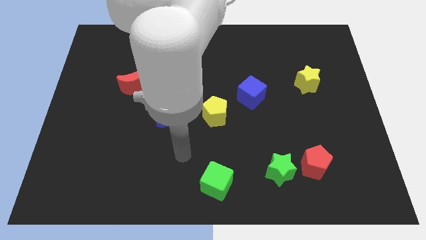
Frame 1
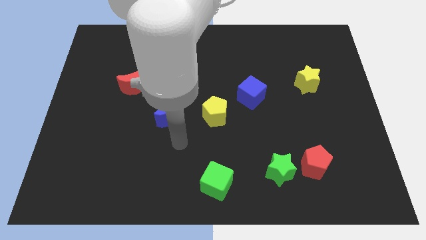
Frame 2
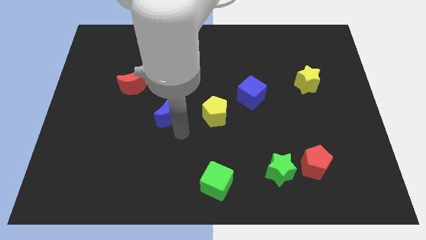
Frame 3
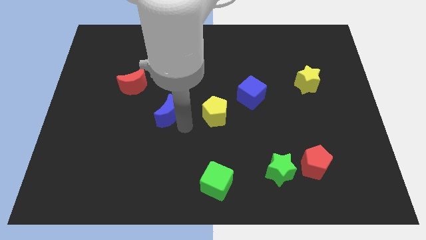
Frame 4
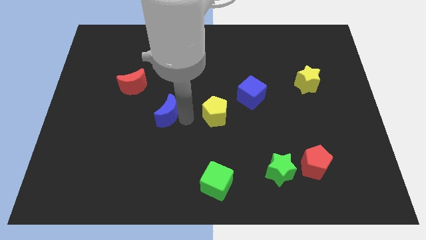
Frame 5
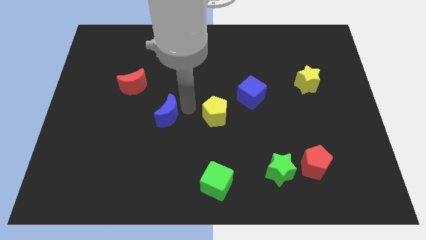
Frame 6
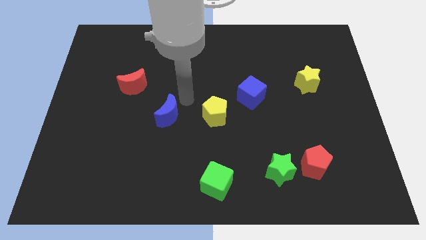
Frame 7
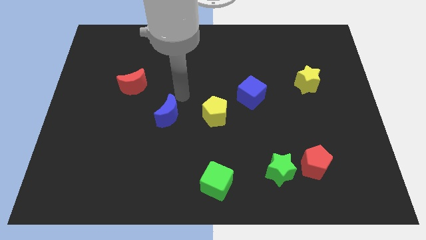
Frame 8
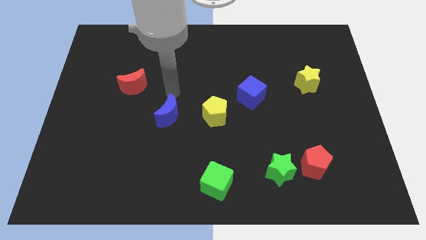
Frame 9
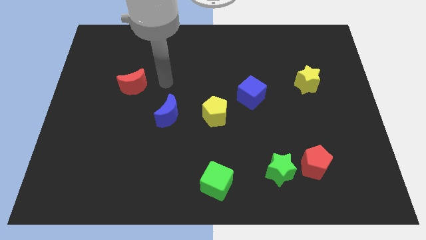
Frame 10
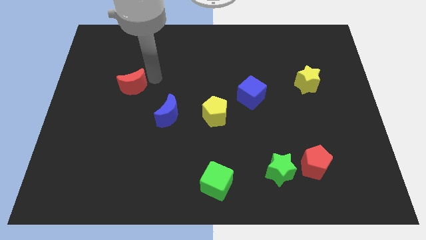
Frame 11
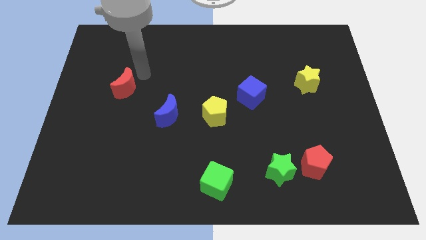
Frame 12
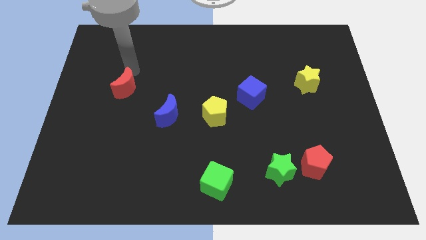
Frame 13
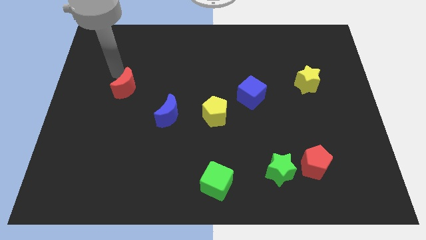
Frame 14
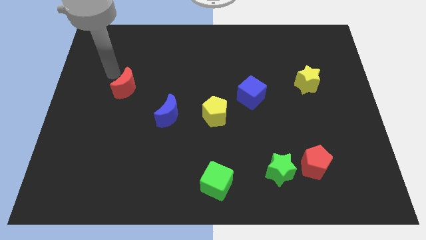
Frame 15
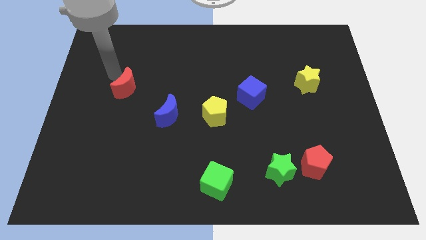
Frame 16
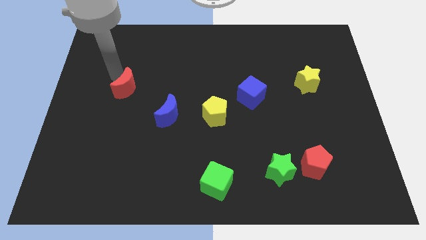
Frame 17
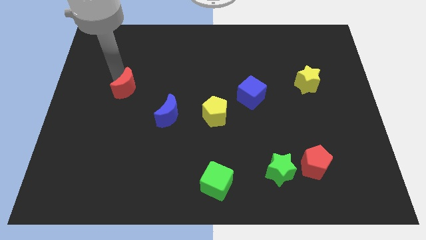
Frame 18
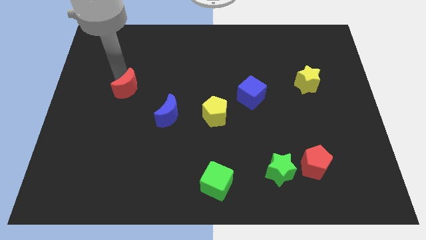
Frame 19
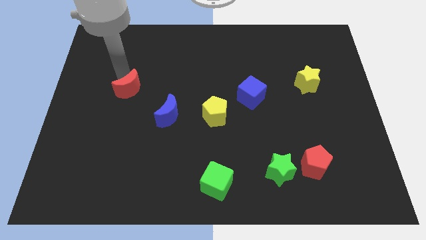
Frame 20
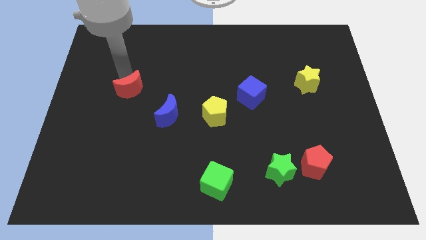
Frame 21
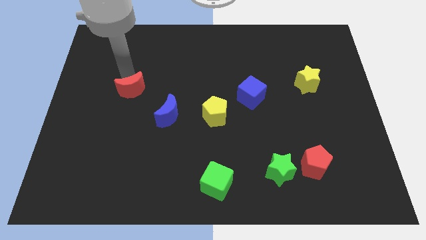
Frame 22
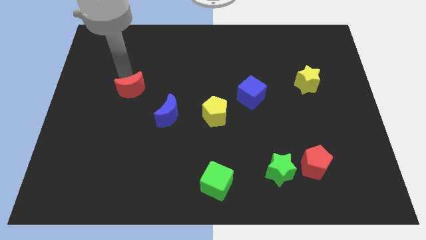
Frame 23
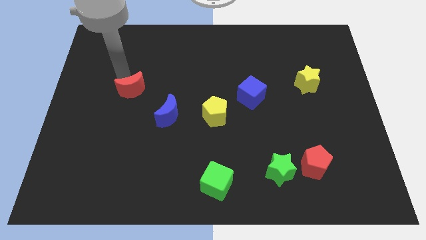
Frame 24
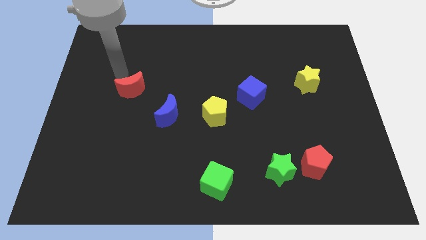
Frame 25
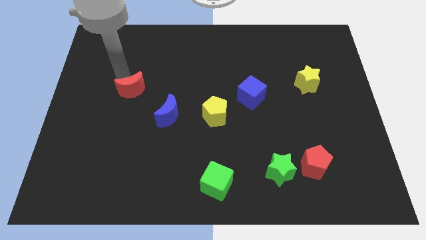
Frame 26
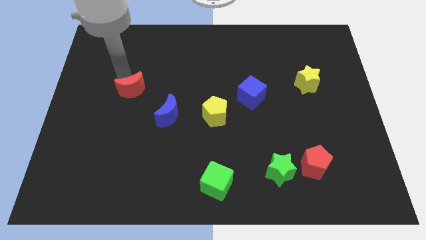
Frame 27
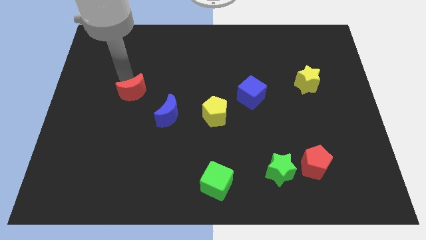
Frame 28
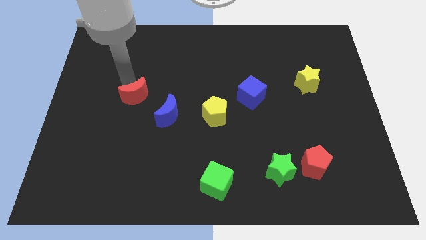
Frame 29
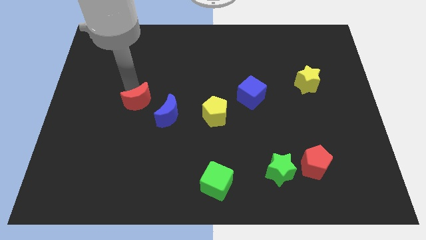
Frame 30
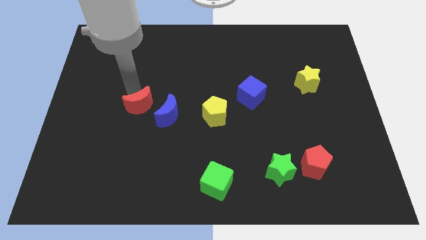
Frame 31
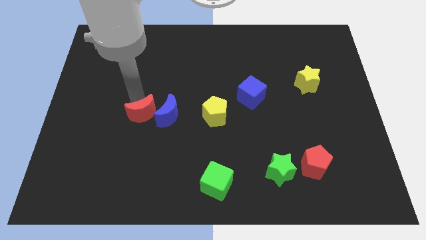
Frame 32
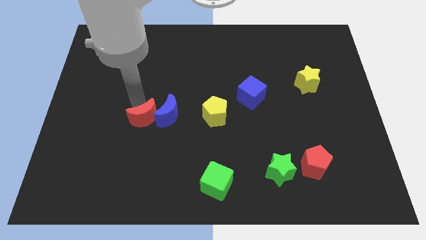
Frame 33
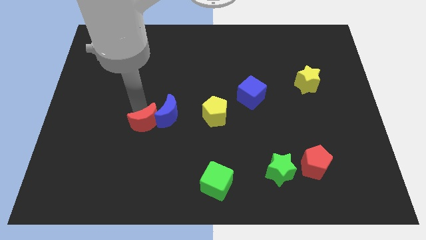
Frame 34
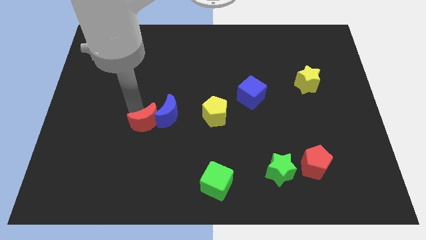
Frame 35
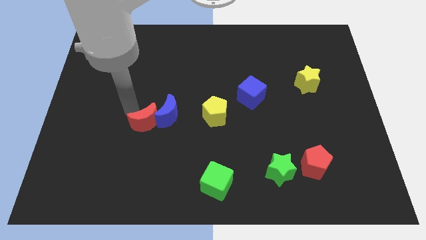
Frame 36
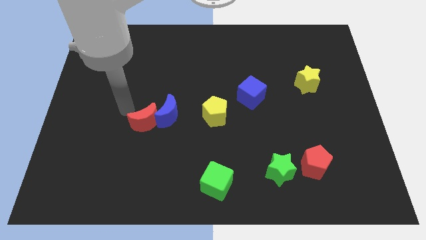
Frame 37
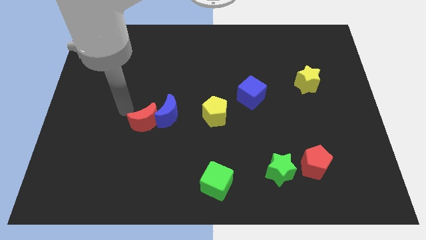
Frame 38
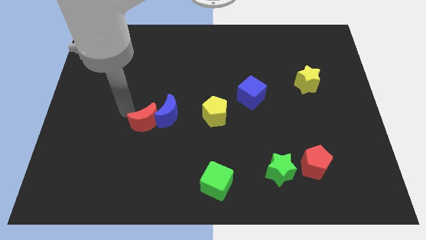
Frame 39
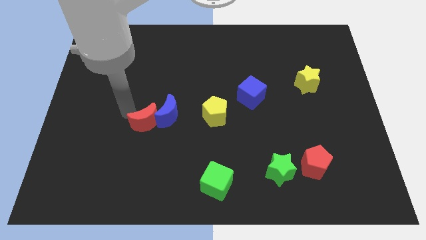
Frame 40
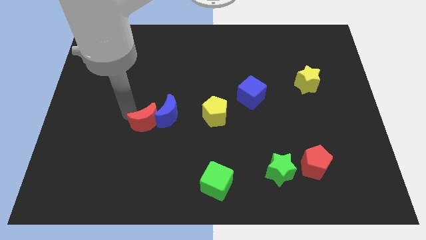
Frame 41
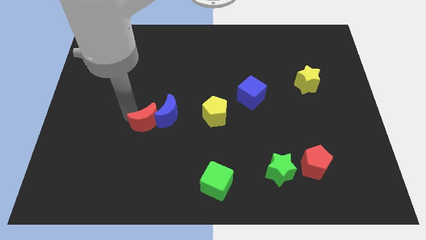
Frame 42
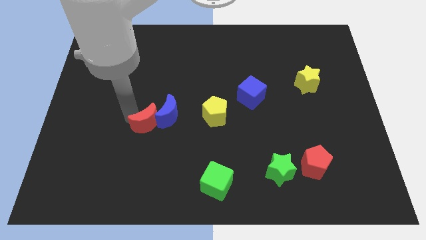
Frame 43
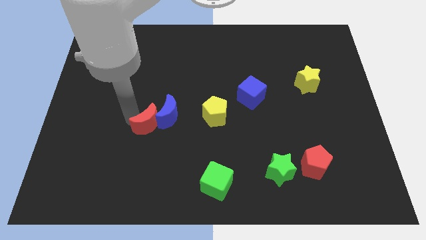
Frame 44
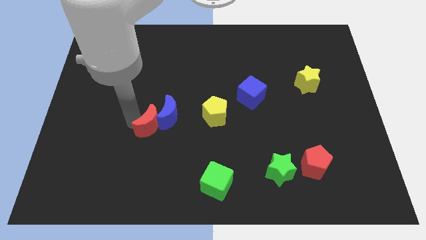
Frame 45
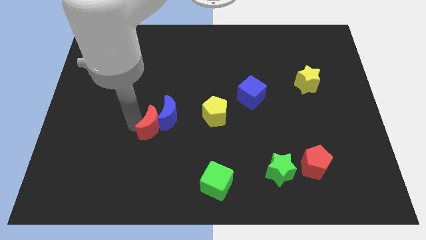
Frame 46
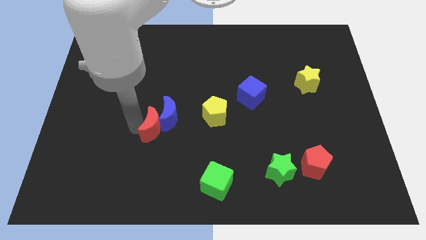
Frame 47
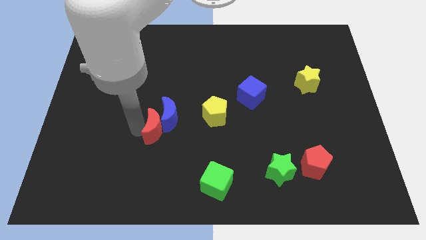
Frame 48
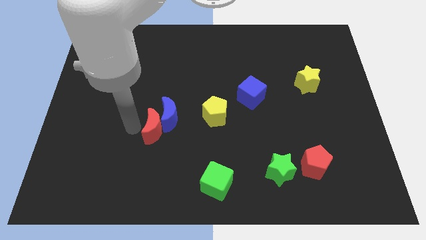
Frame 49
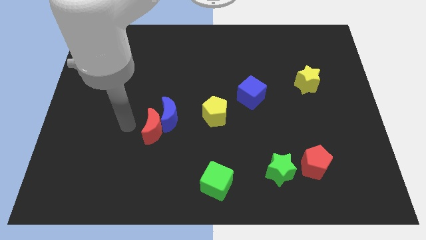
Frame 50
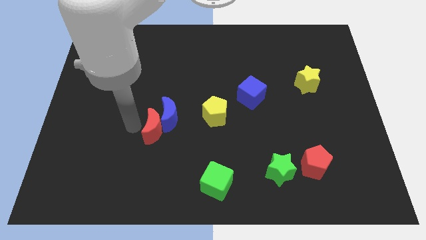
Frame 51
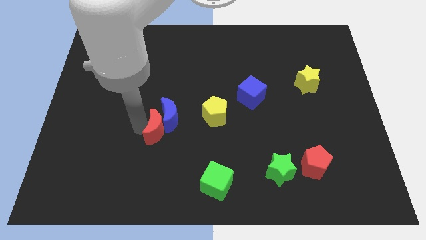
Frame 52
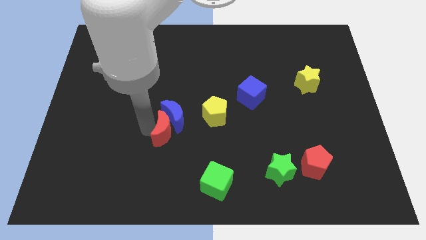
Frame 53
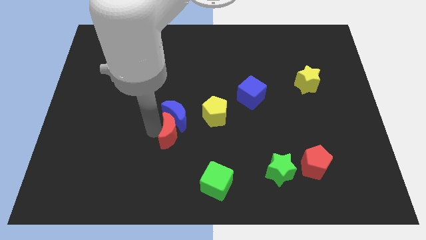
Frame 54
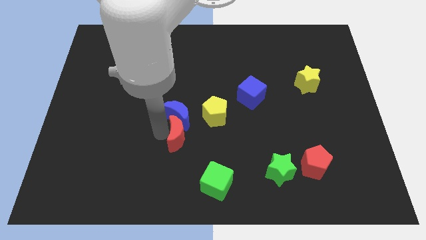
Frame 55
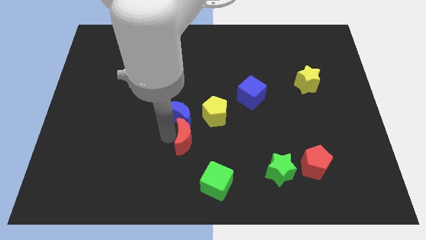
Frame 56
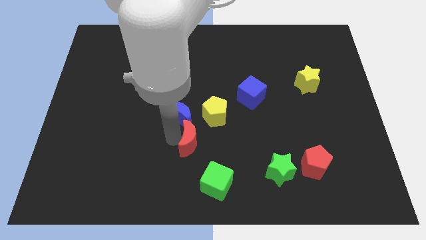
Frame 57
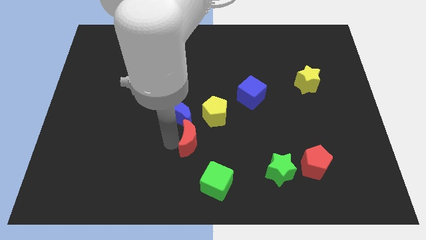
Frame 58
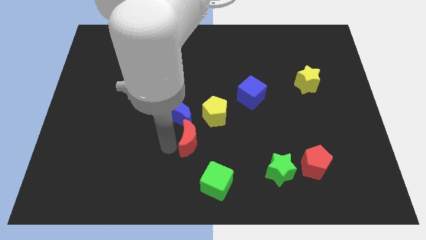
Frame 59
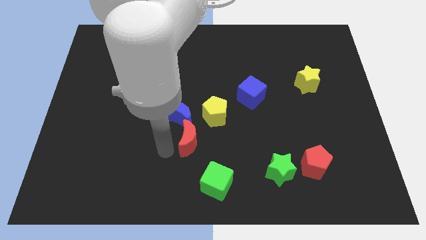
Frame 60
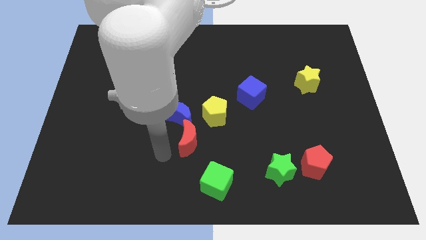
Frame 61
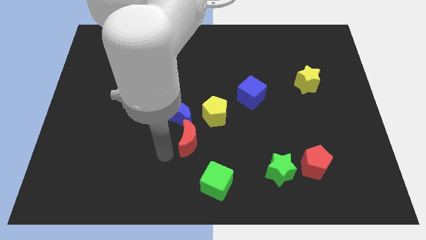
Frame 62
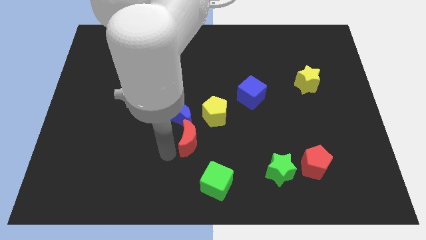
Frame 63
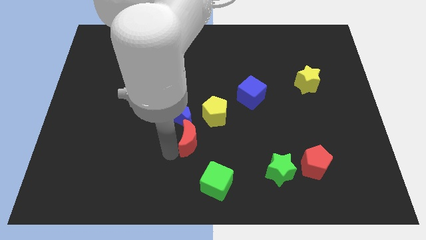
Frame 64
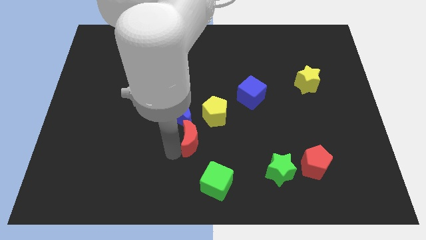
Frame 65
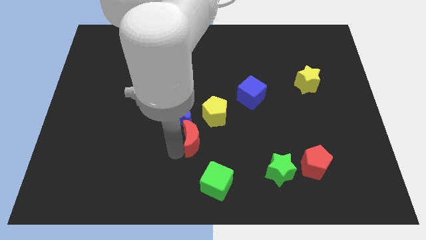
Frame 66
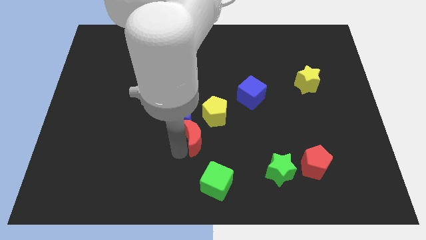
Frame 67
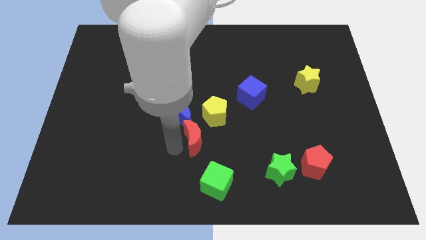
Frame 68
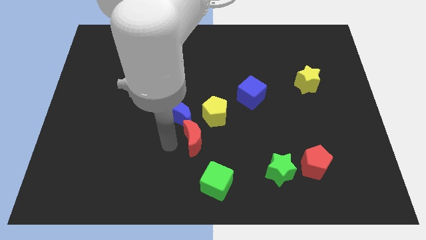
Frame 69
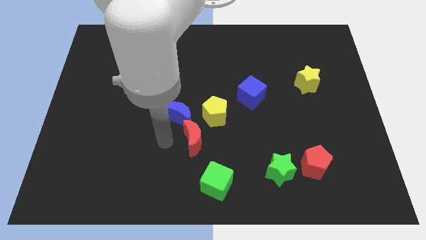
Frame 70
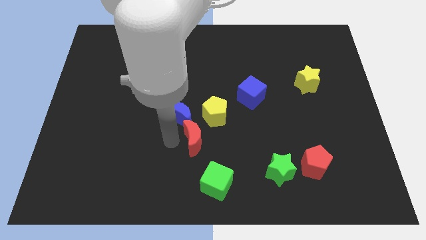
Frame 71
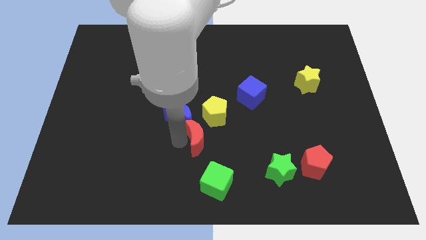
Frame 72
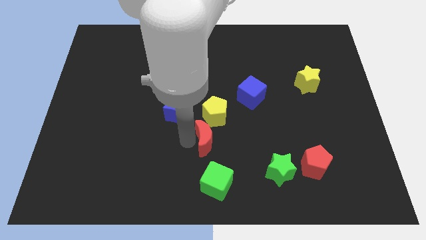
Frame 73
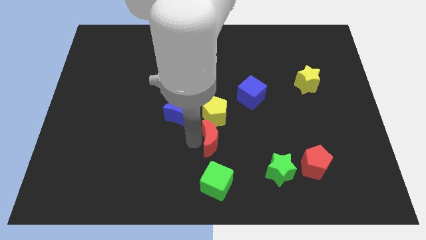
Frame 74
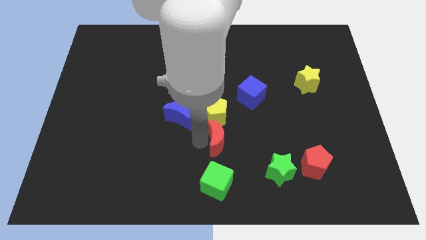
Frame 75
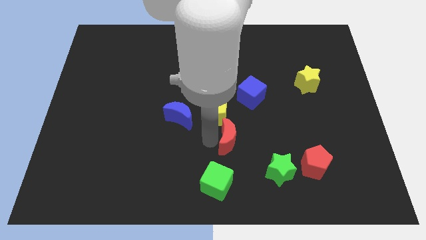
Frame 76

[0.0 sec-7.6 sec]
move the red moon diagonally up and to the left of the green star
